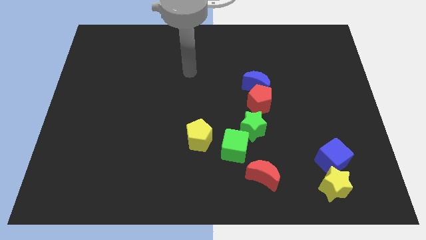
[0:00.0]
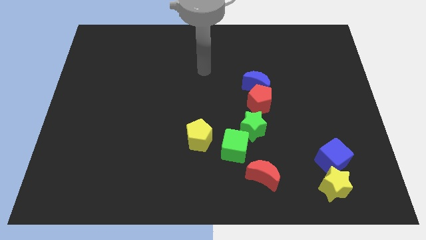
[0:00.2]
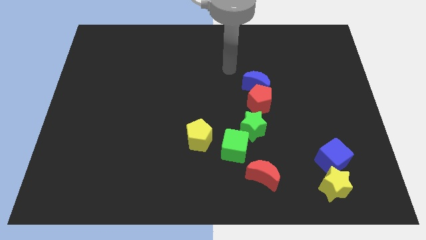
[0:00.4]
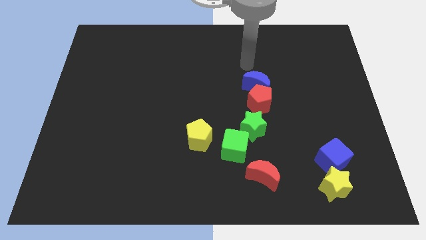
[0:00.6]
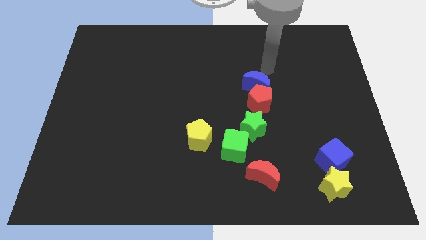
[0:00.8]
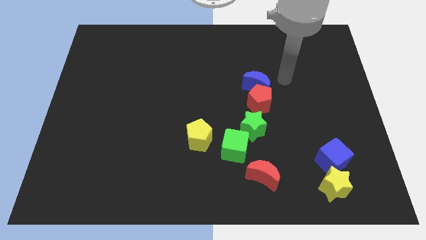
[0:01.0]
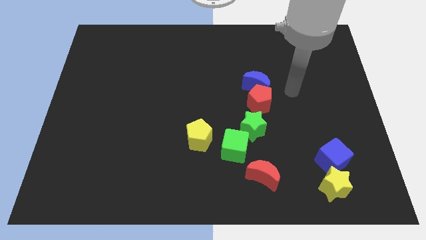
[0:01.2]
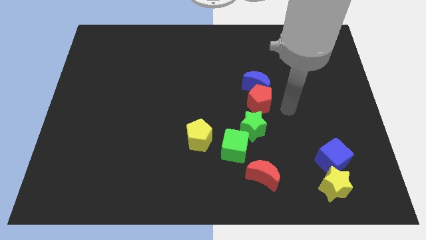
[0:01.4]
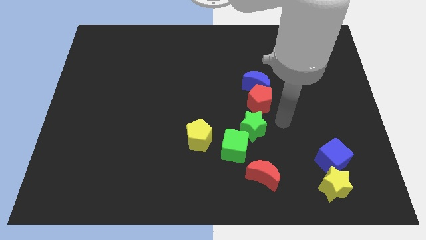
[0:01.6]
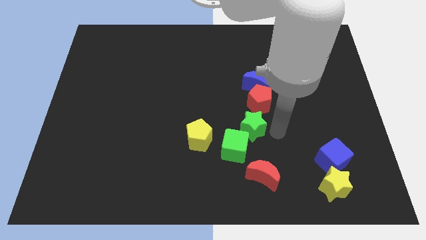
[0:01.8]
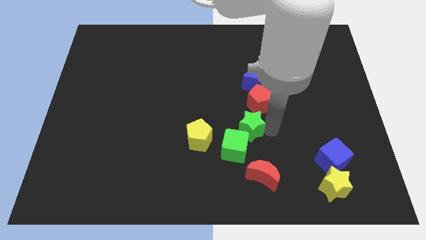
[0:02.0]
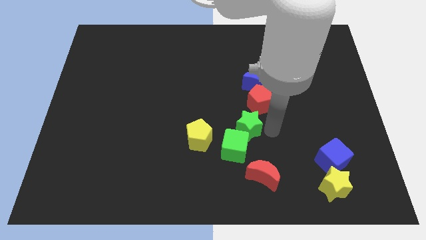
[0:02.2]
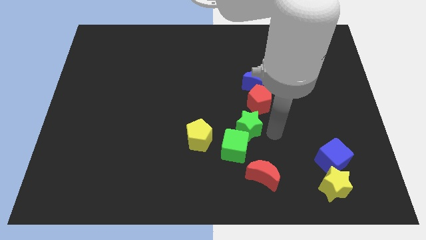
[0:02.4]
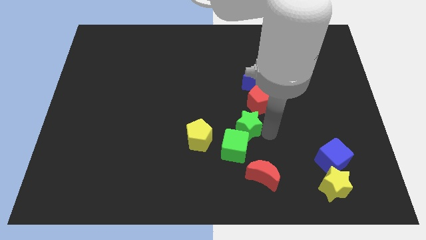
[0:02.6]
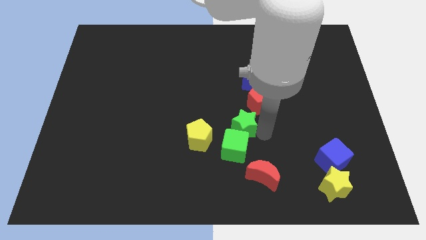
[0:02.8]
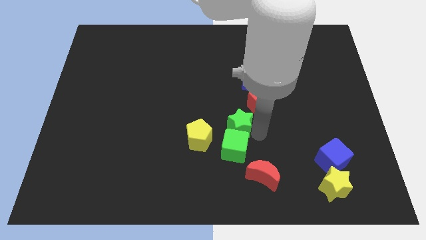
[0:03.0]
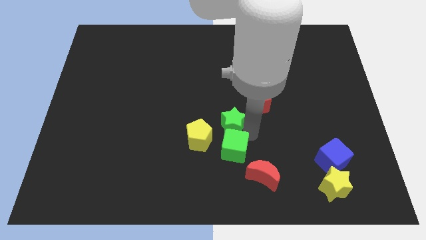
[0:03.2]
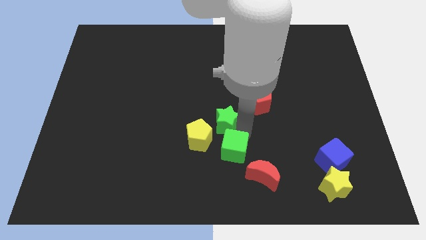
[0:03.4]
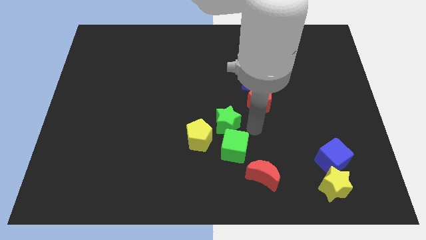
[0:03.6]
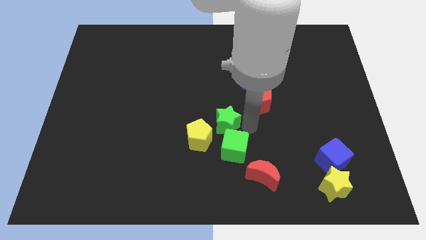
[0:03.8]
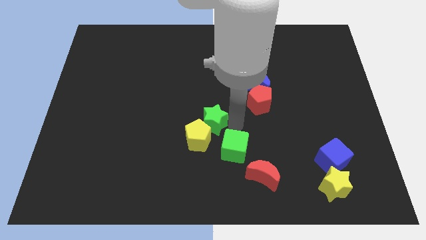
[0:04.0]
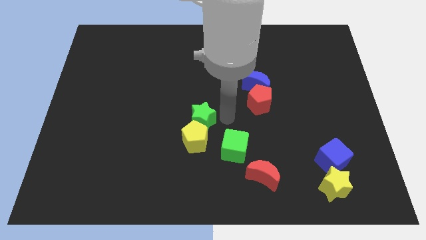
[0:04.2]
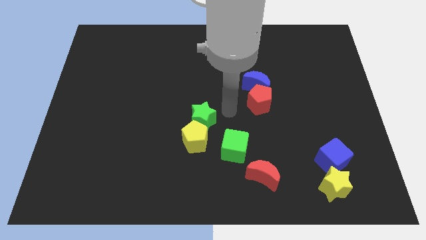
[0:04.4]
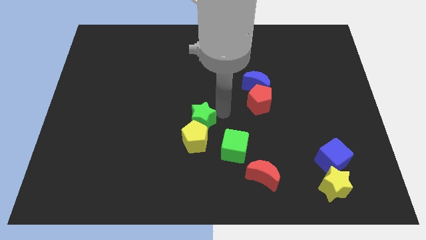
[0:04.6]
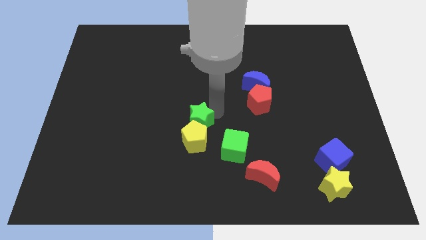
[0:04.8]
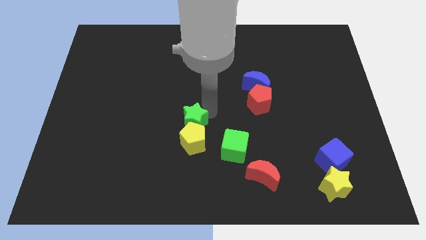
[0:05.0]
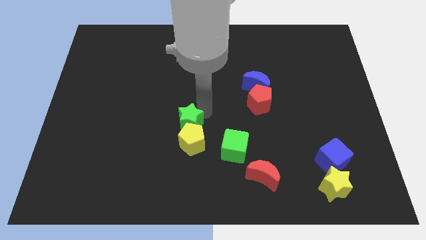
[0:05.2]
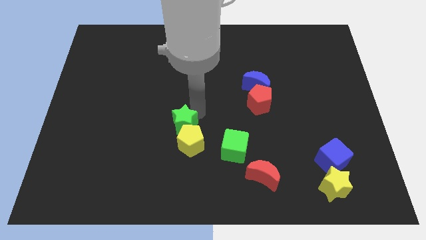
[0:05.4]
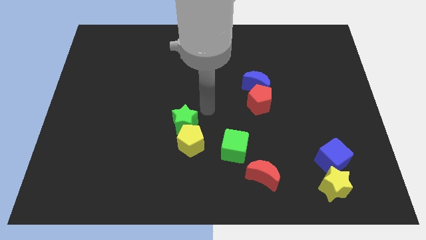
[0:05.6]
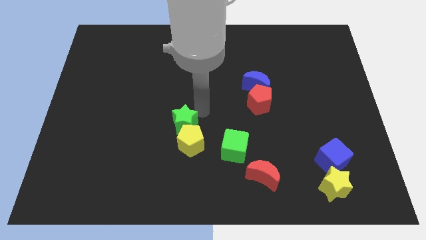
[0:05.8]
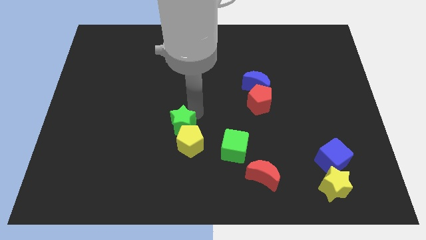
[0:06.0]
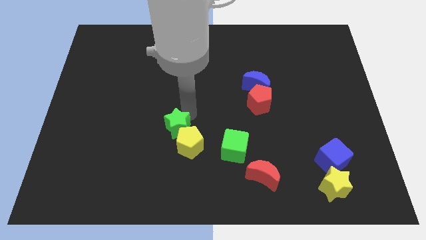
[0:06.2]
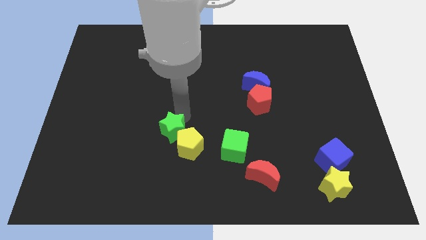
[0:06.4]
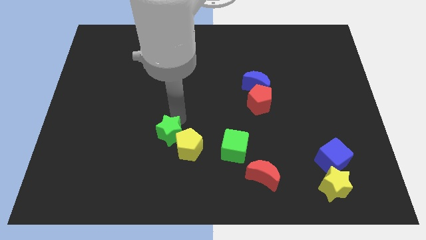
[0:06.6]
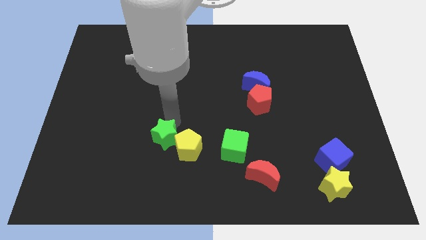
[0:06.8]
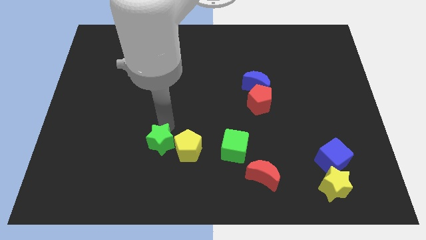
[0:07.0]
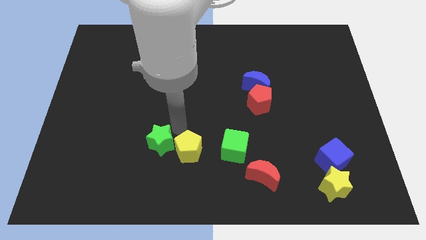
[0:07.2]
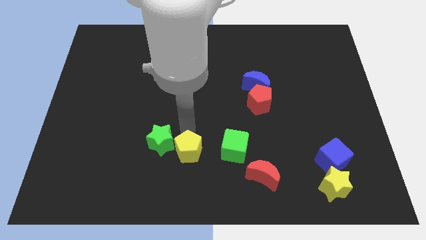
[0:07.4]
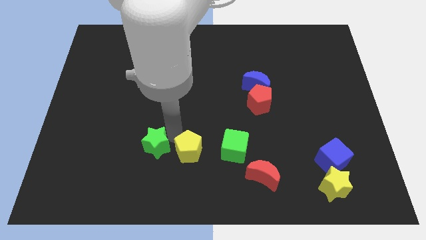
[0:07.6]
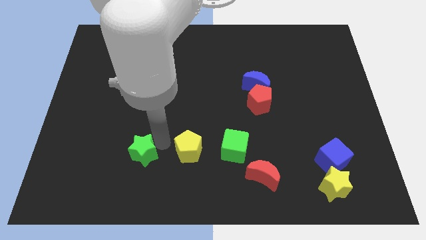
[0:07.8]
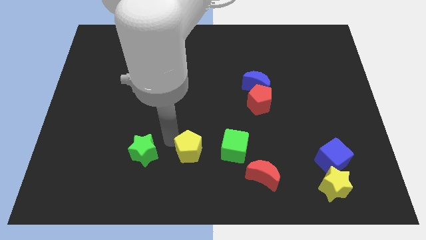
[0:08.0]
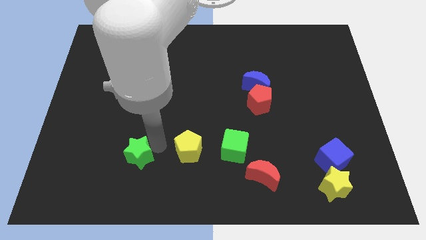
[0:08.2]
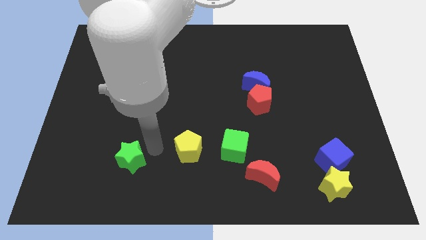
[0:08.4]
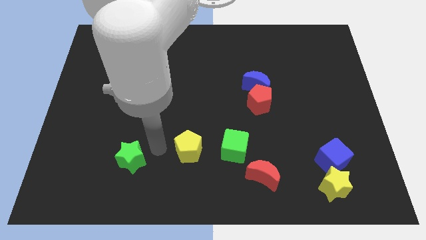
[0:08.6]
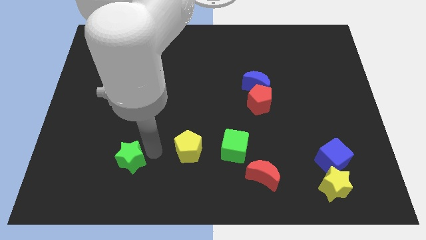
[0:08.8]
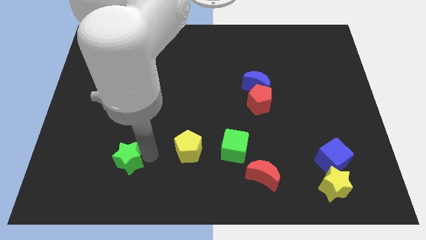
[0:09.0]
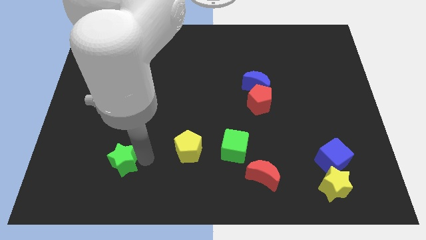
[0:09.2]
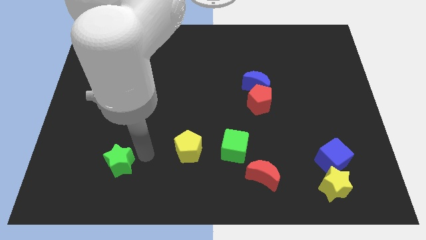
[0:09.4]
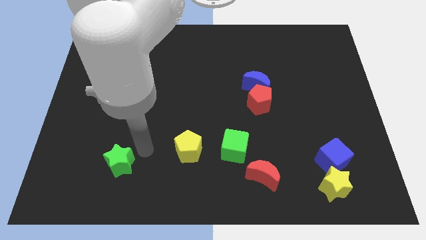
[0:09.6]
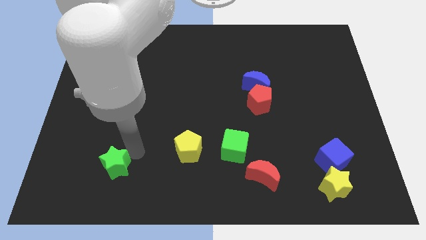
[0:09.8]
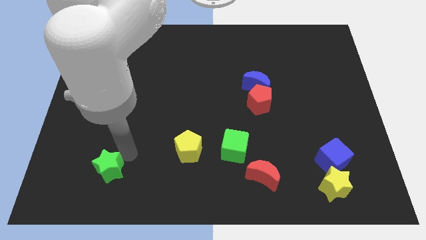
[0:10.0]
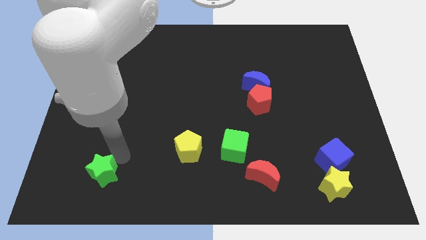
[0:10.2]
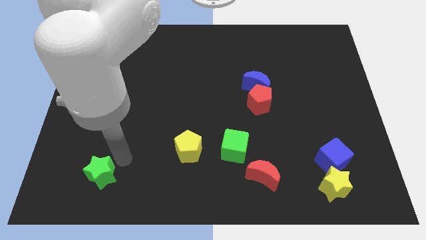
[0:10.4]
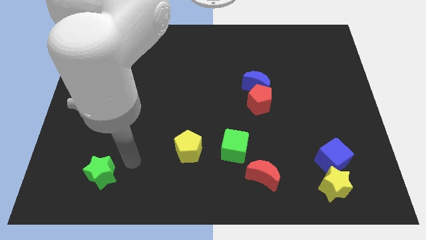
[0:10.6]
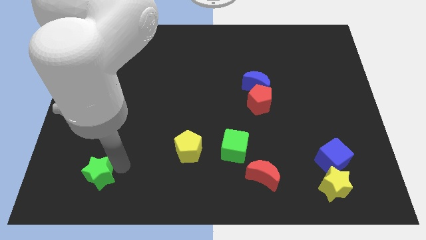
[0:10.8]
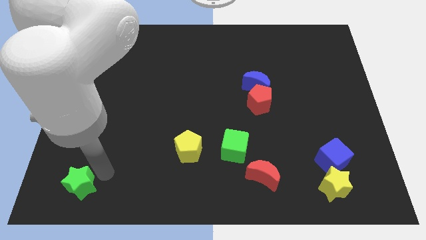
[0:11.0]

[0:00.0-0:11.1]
push the green star to the lower left corner

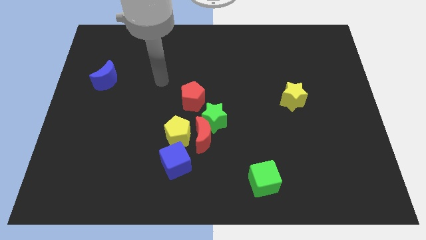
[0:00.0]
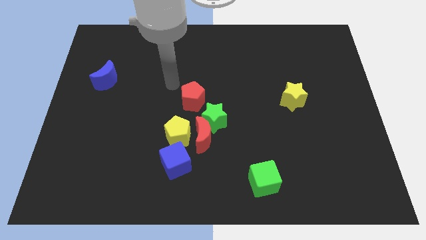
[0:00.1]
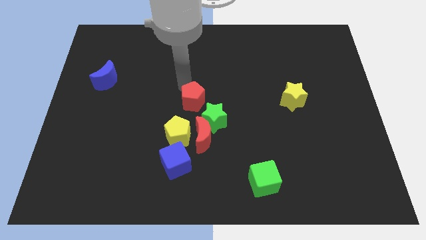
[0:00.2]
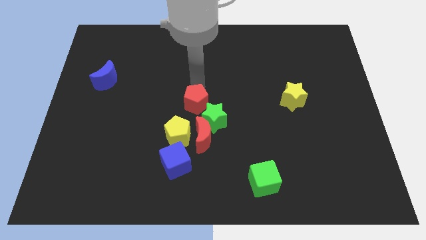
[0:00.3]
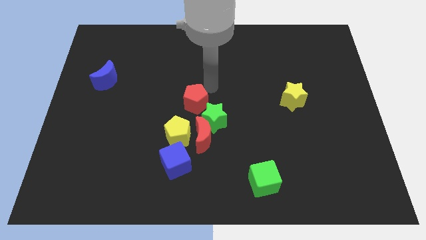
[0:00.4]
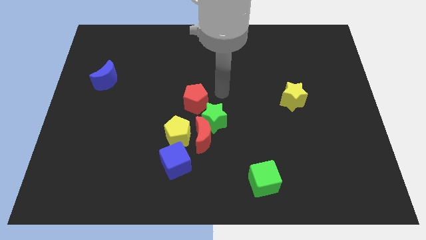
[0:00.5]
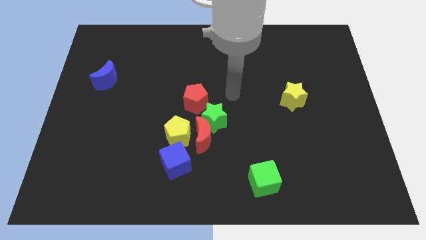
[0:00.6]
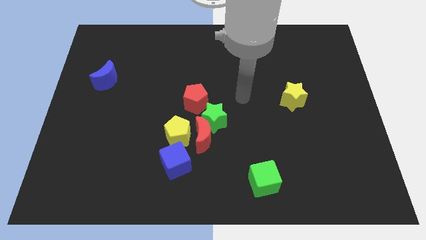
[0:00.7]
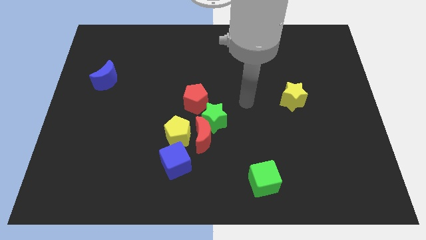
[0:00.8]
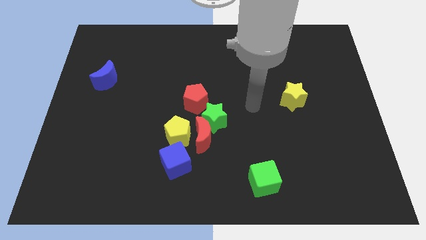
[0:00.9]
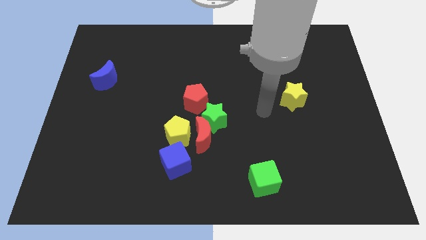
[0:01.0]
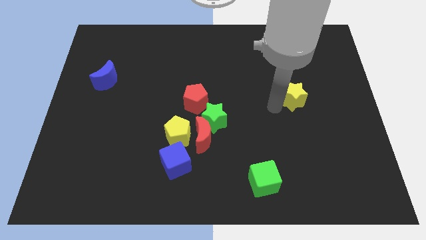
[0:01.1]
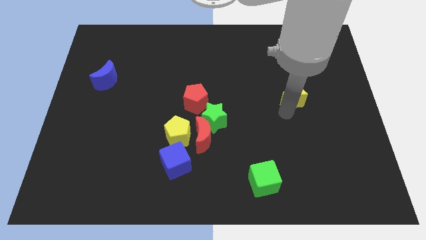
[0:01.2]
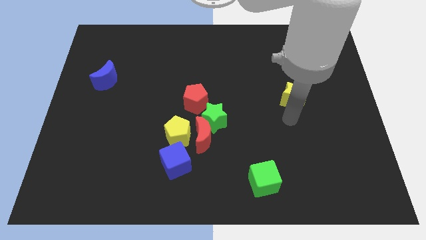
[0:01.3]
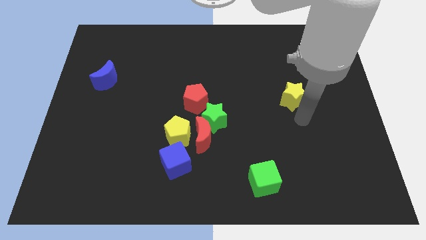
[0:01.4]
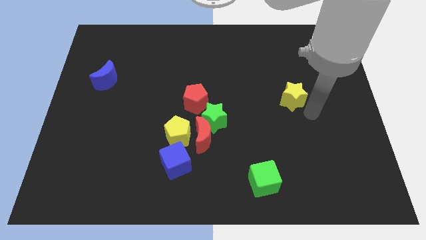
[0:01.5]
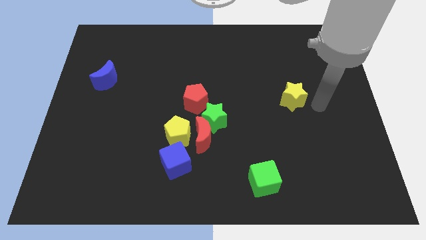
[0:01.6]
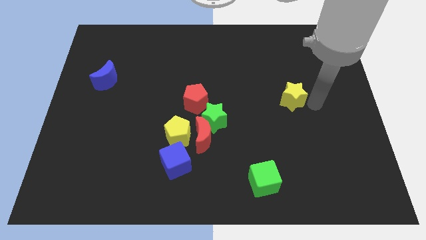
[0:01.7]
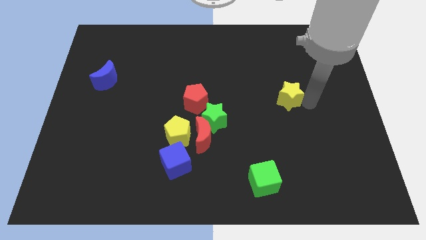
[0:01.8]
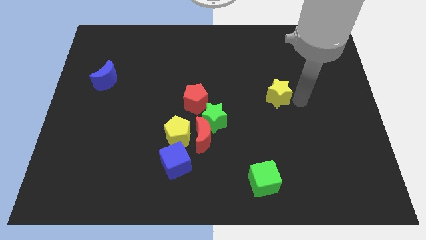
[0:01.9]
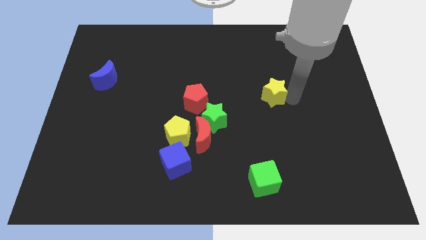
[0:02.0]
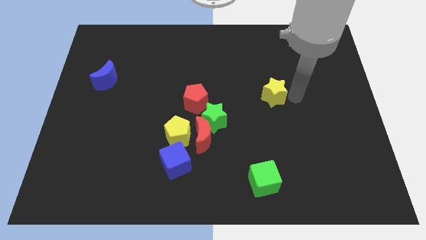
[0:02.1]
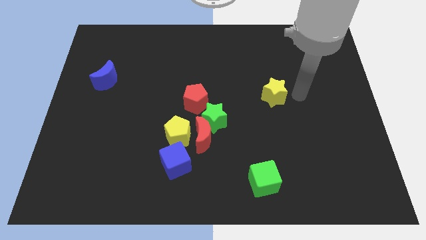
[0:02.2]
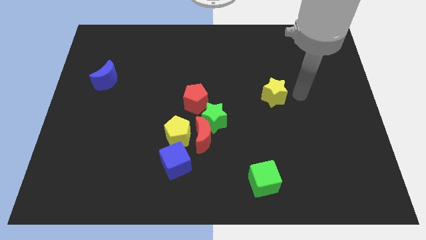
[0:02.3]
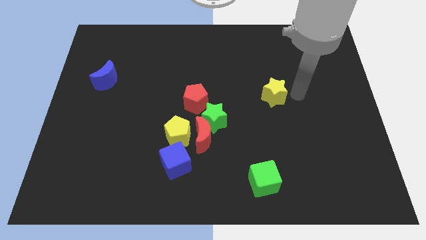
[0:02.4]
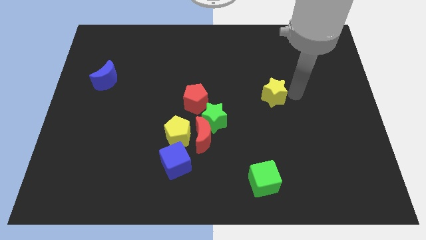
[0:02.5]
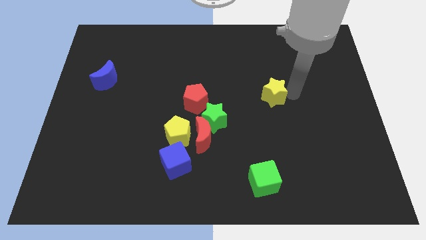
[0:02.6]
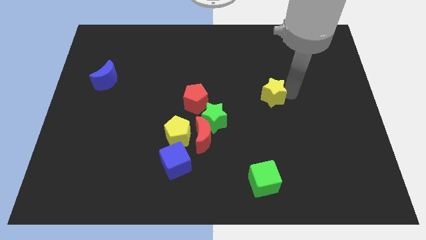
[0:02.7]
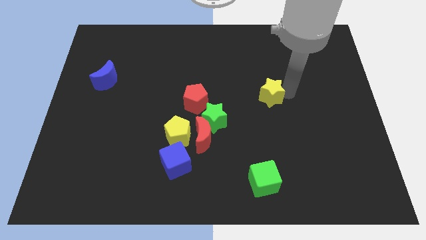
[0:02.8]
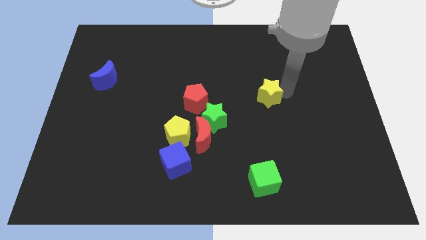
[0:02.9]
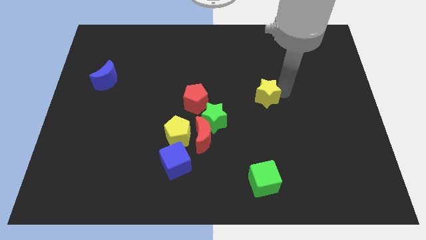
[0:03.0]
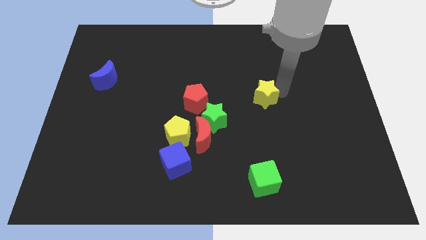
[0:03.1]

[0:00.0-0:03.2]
put the yellow star to the center of the board
